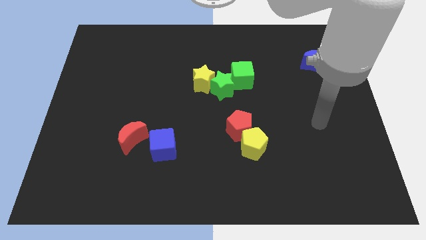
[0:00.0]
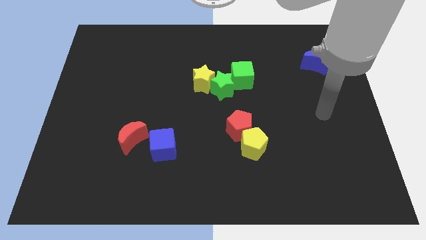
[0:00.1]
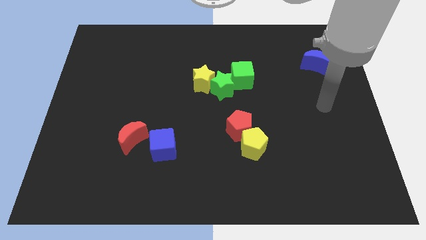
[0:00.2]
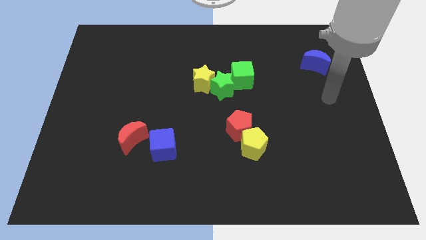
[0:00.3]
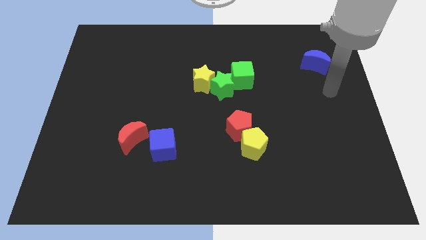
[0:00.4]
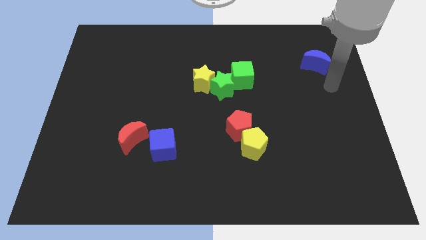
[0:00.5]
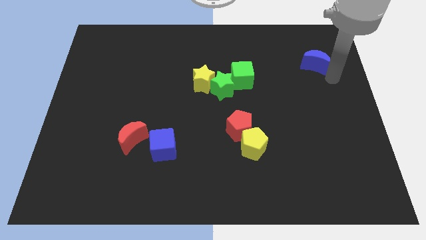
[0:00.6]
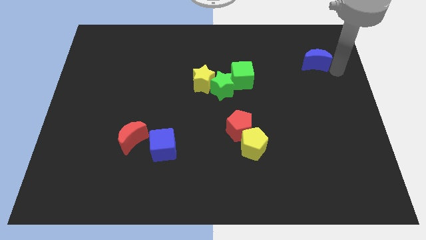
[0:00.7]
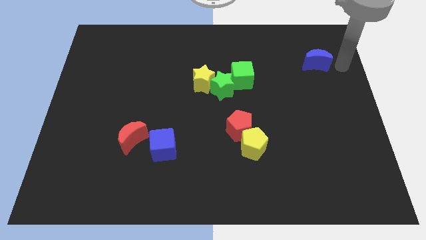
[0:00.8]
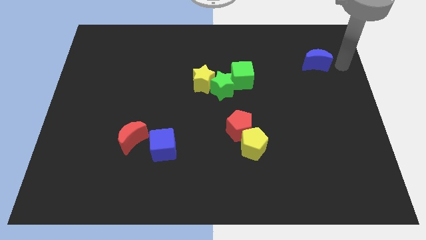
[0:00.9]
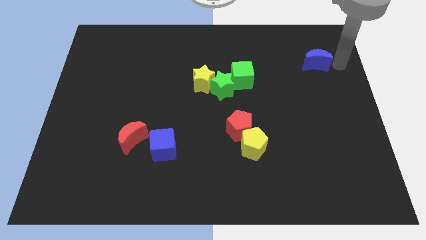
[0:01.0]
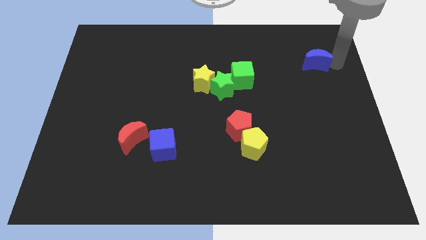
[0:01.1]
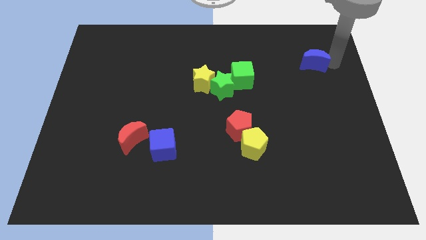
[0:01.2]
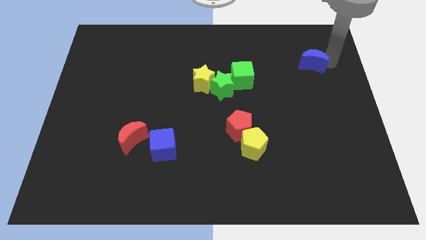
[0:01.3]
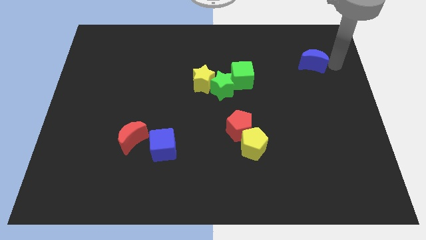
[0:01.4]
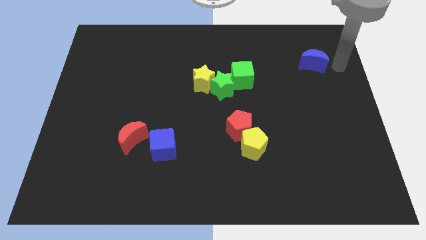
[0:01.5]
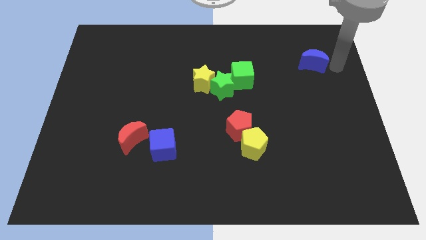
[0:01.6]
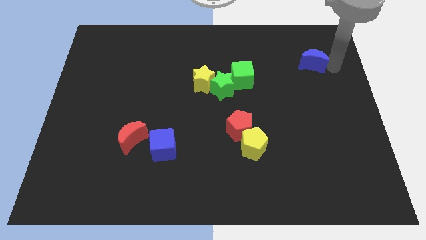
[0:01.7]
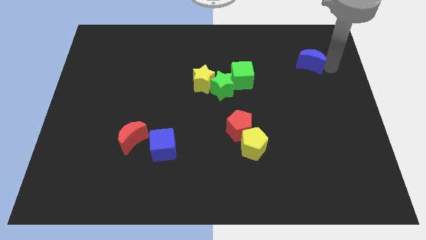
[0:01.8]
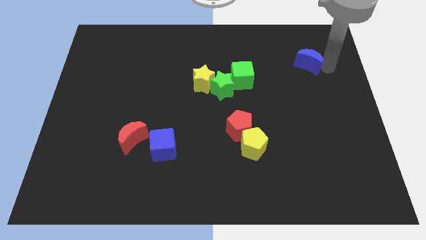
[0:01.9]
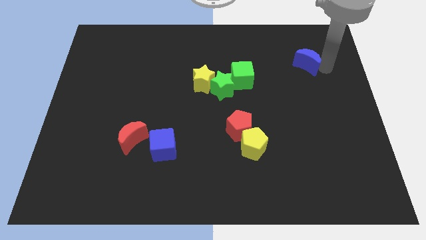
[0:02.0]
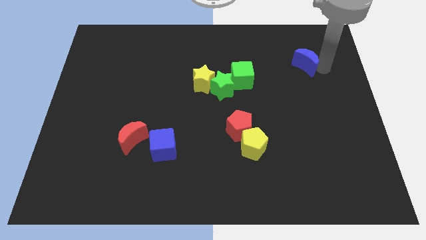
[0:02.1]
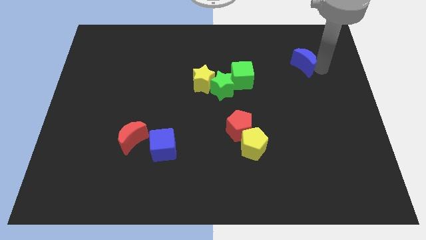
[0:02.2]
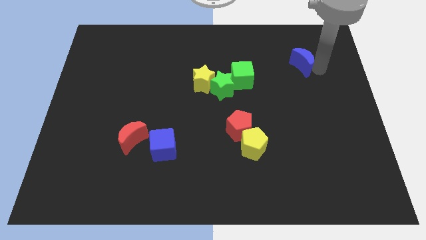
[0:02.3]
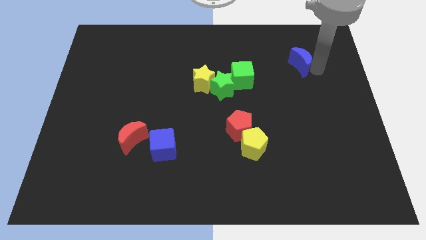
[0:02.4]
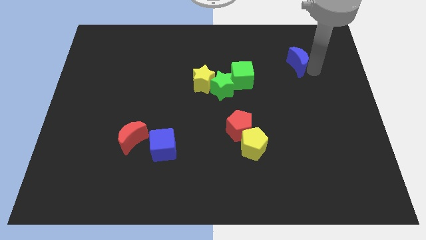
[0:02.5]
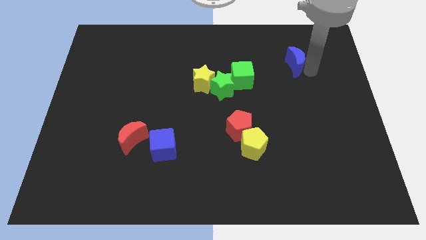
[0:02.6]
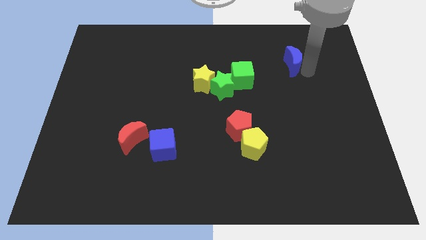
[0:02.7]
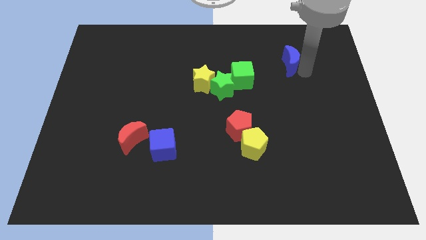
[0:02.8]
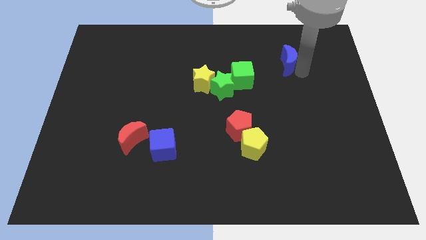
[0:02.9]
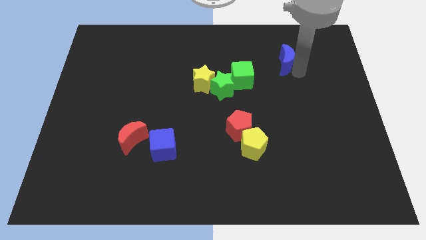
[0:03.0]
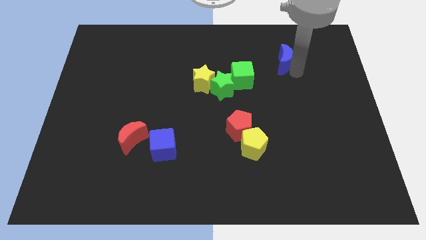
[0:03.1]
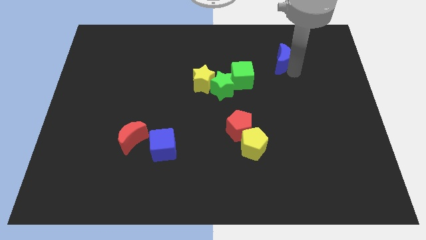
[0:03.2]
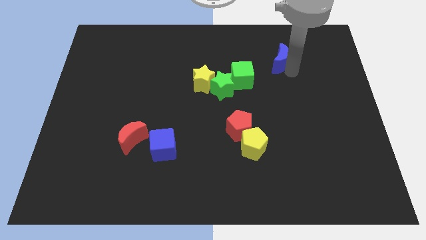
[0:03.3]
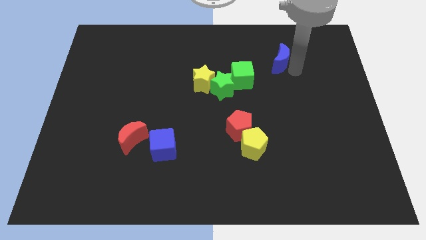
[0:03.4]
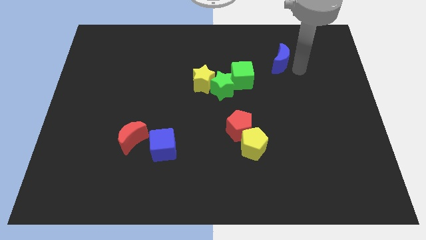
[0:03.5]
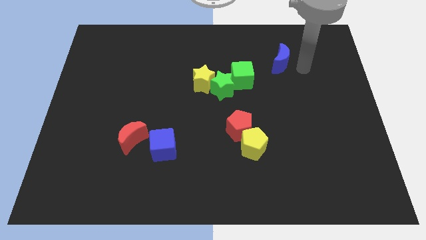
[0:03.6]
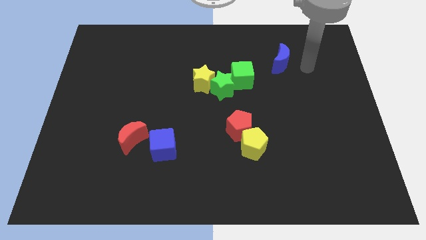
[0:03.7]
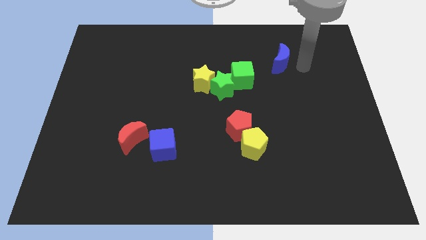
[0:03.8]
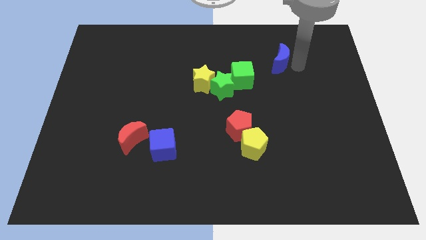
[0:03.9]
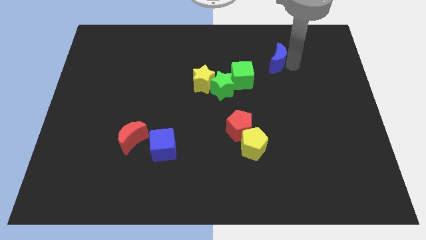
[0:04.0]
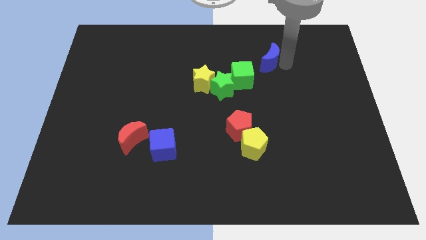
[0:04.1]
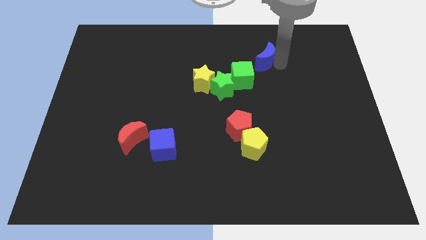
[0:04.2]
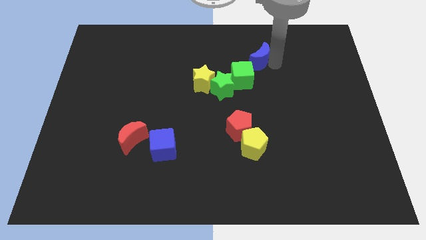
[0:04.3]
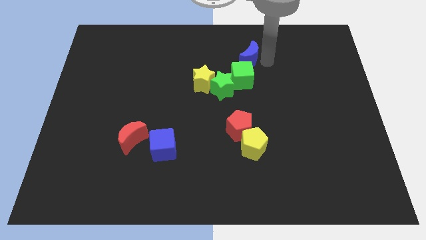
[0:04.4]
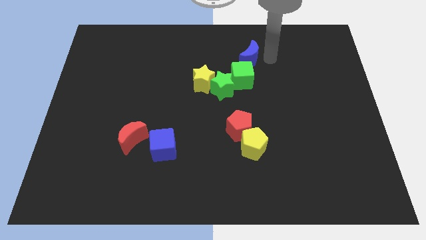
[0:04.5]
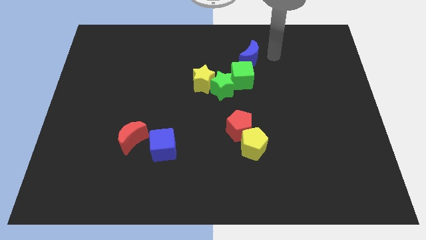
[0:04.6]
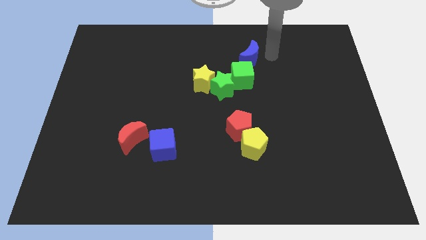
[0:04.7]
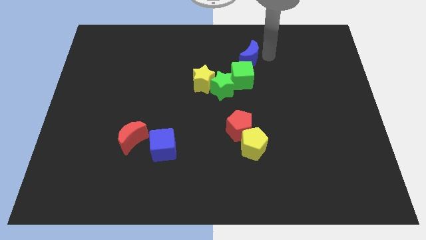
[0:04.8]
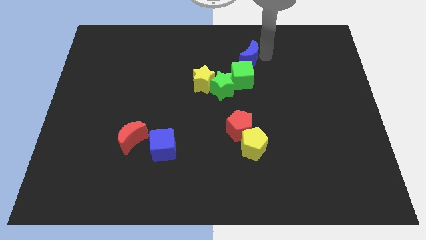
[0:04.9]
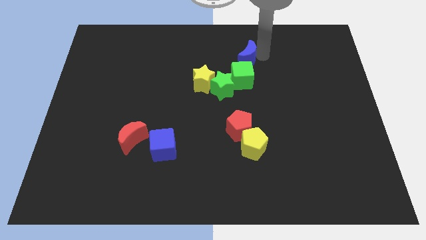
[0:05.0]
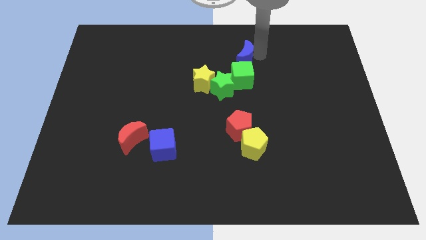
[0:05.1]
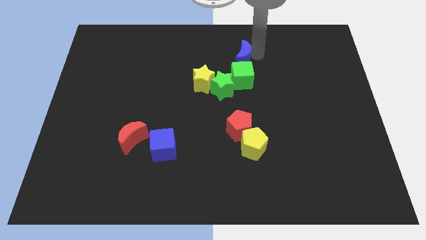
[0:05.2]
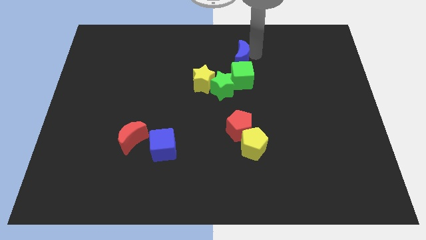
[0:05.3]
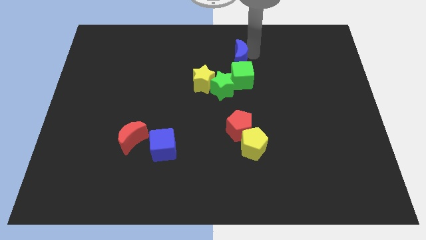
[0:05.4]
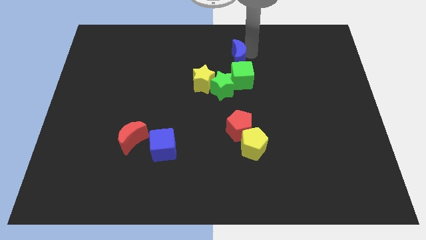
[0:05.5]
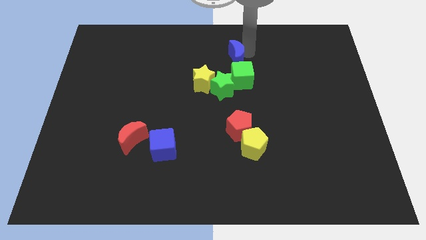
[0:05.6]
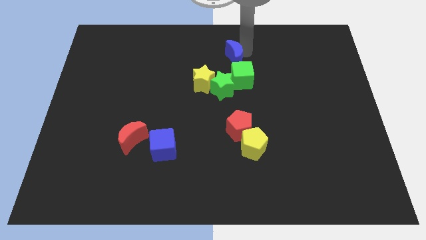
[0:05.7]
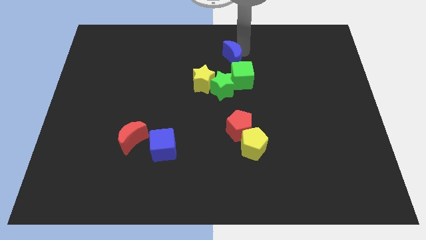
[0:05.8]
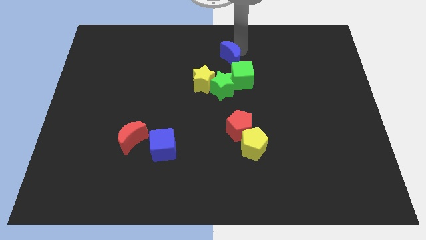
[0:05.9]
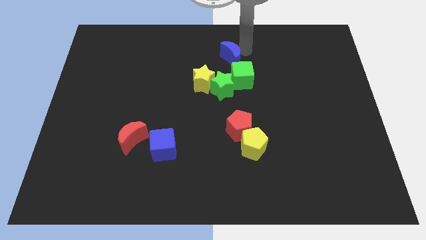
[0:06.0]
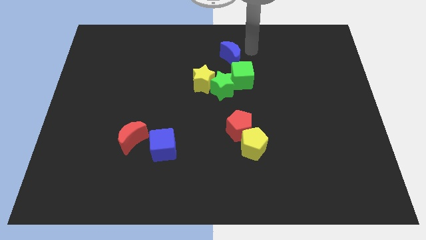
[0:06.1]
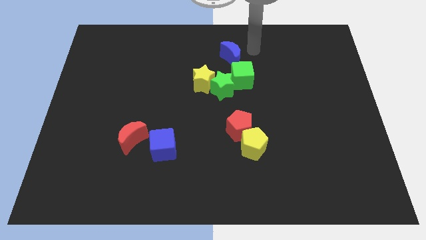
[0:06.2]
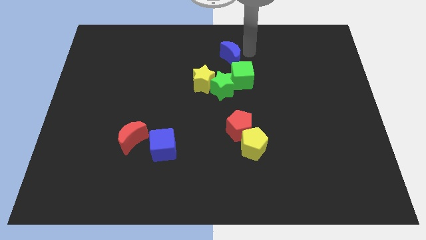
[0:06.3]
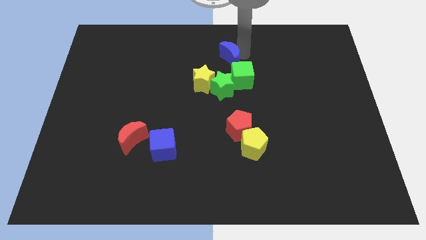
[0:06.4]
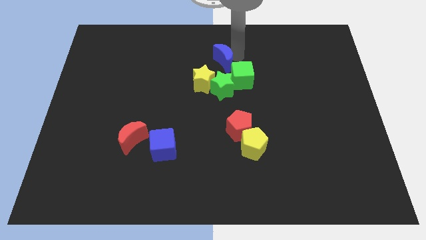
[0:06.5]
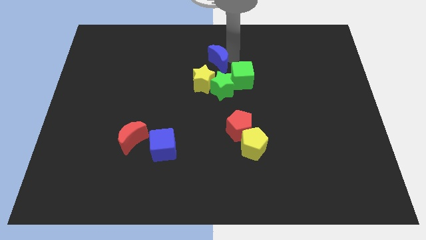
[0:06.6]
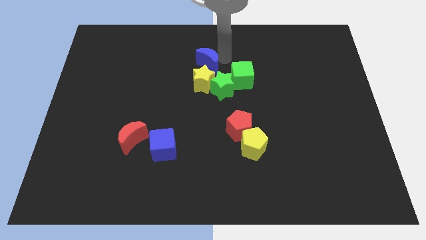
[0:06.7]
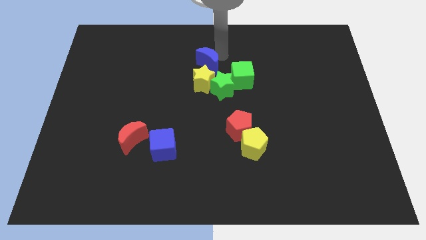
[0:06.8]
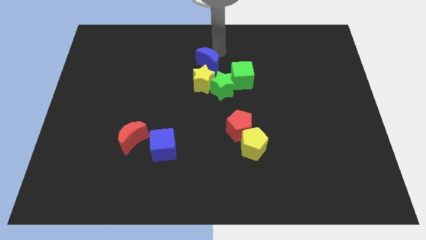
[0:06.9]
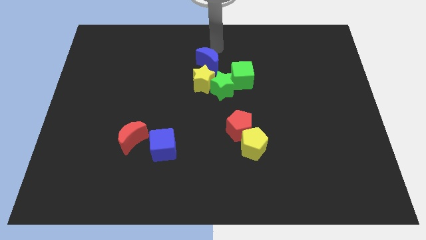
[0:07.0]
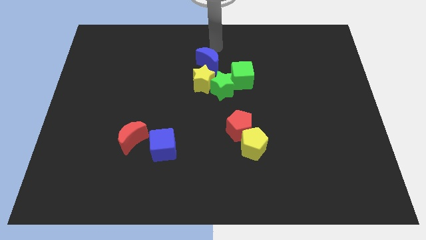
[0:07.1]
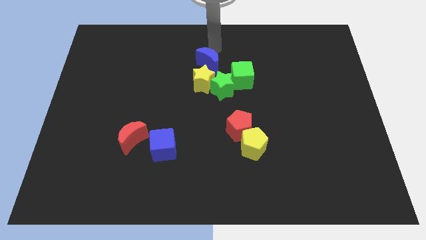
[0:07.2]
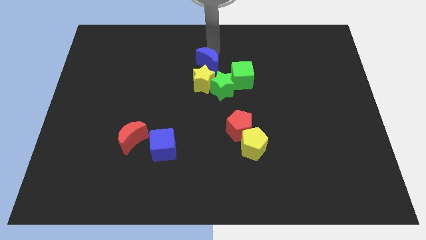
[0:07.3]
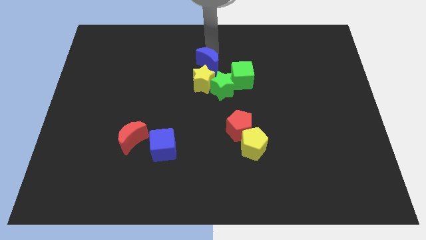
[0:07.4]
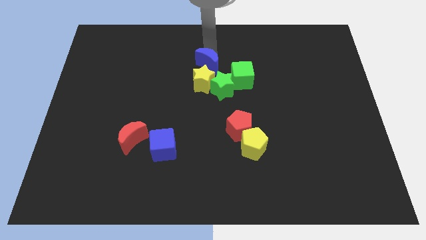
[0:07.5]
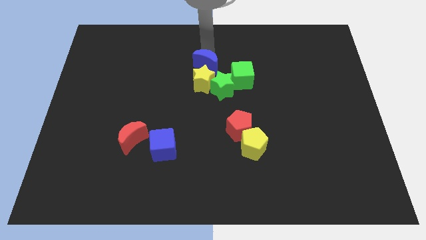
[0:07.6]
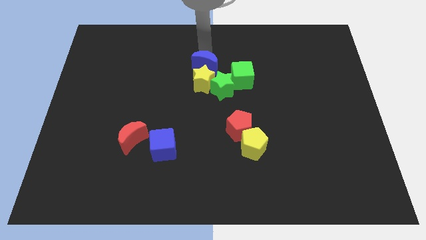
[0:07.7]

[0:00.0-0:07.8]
put the blue moon next to the yellow star
